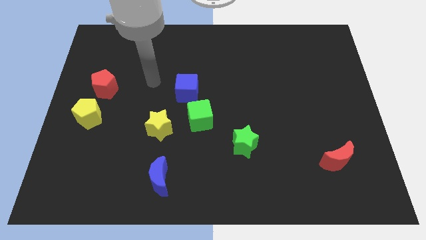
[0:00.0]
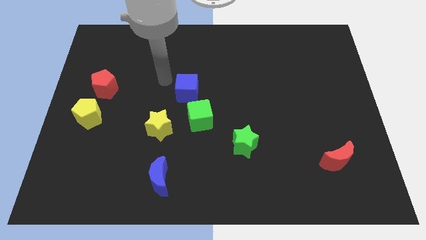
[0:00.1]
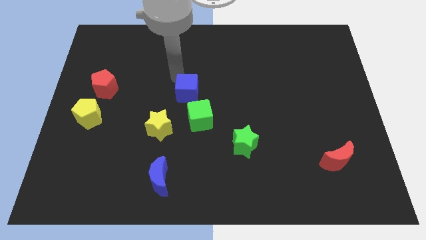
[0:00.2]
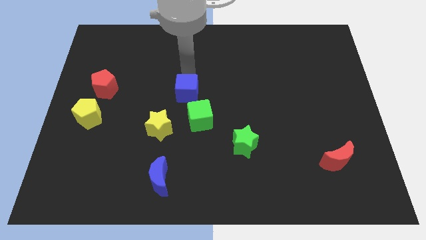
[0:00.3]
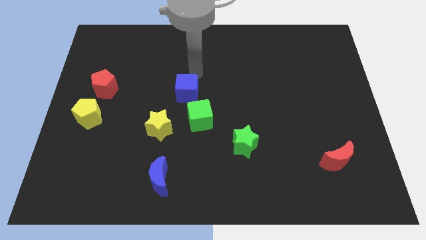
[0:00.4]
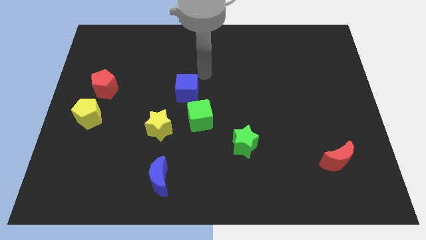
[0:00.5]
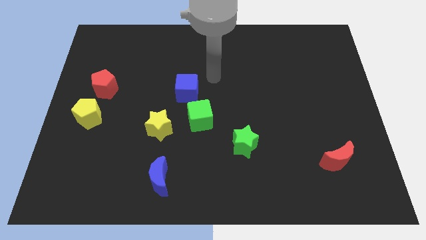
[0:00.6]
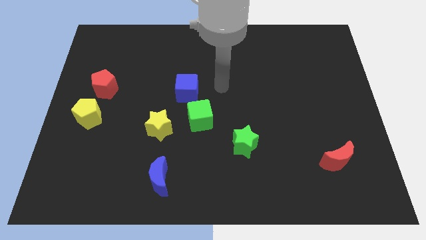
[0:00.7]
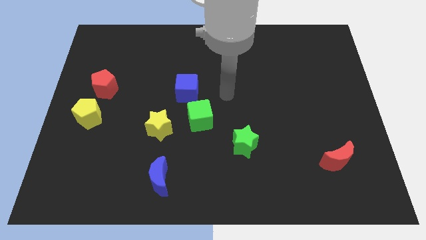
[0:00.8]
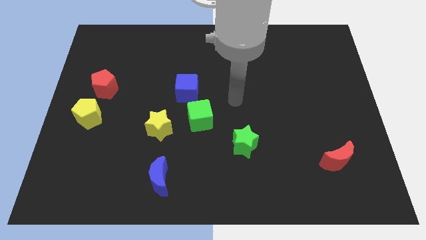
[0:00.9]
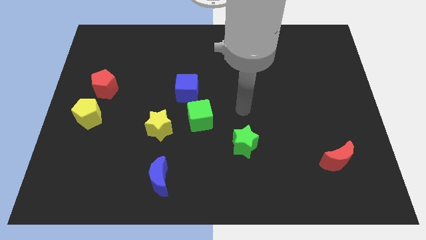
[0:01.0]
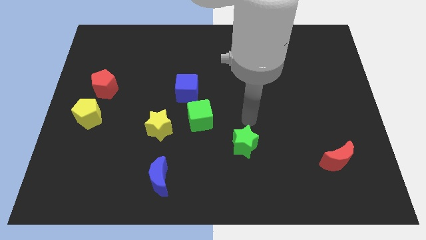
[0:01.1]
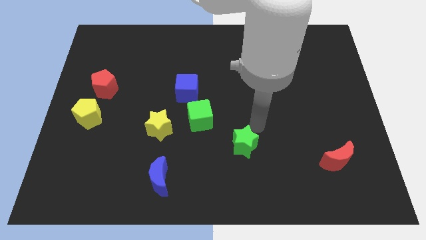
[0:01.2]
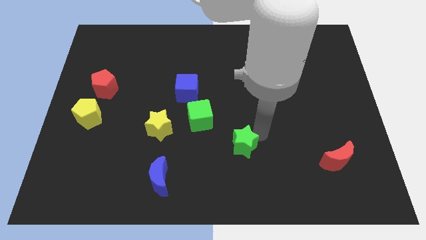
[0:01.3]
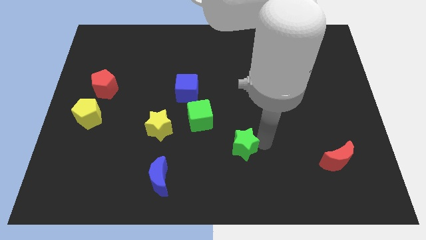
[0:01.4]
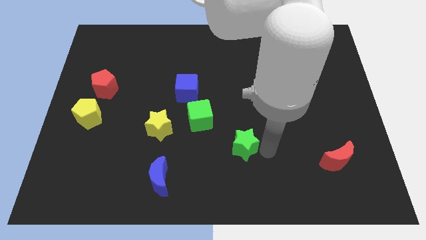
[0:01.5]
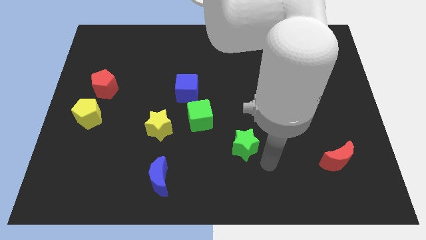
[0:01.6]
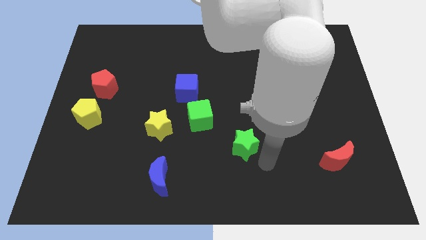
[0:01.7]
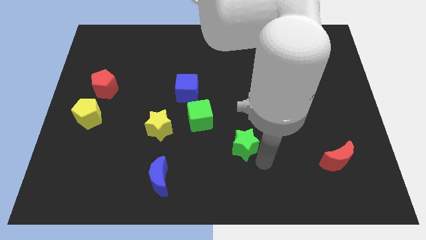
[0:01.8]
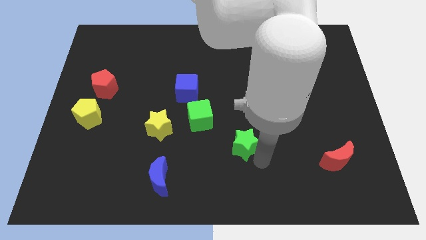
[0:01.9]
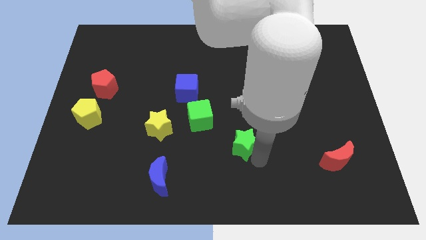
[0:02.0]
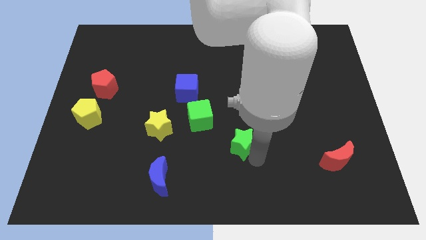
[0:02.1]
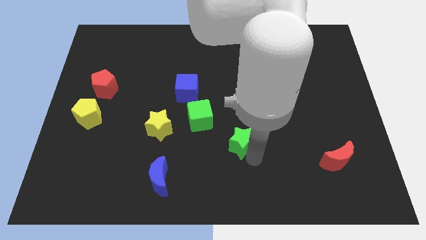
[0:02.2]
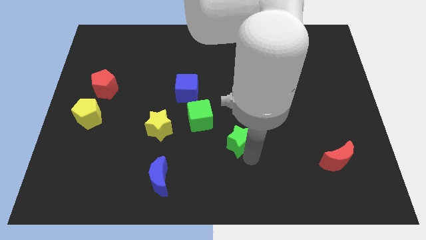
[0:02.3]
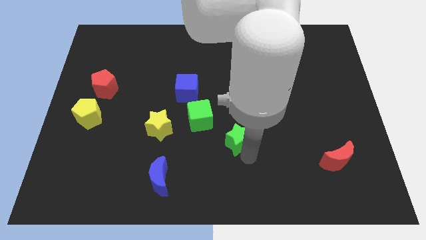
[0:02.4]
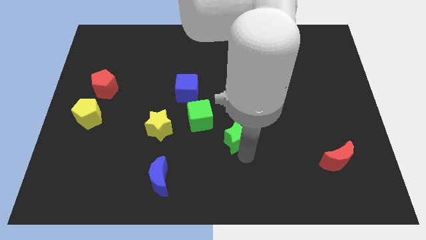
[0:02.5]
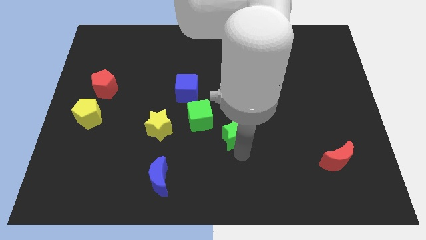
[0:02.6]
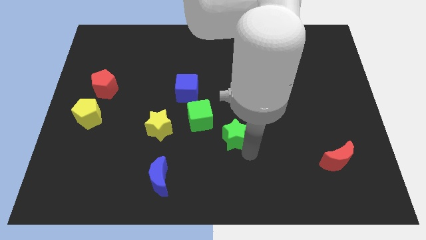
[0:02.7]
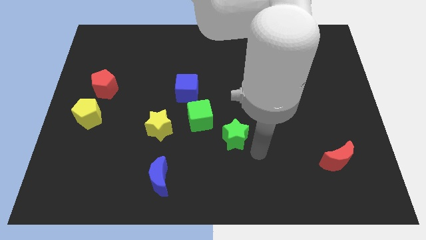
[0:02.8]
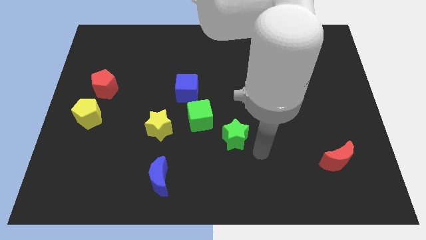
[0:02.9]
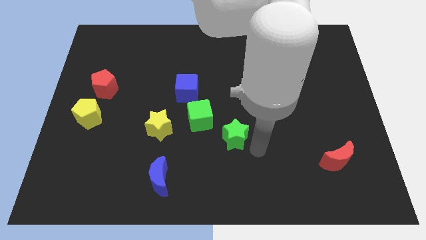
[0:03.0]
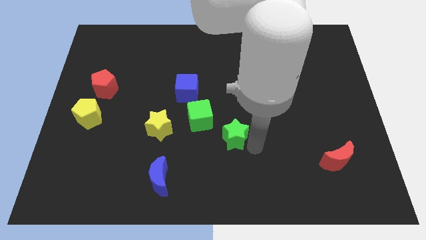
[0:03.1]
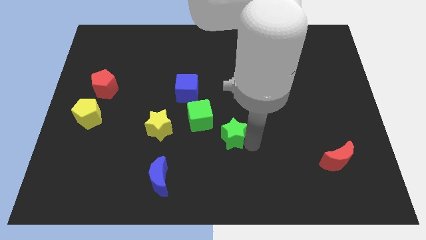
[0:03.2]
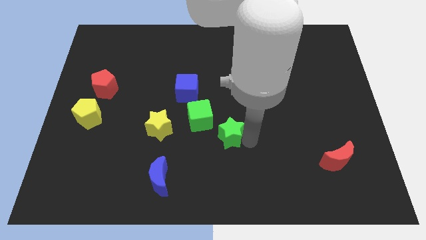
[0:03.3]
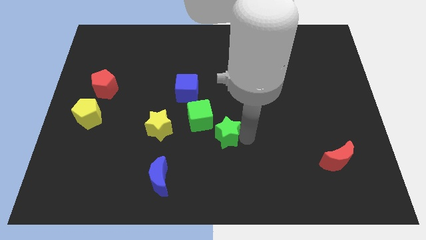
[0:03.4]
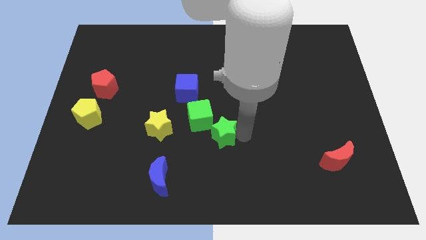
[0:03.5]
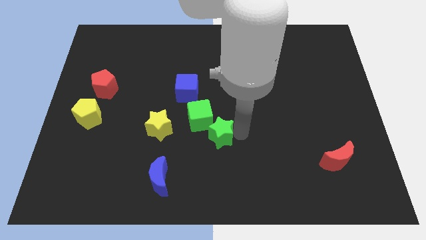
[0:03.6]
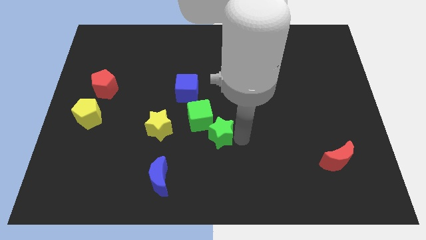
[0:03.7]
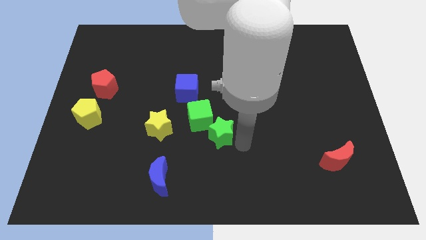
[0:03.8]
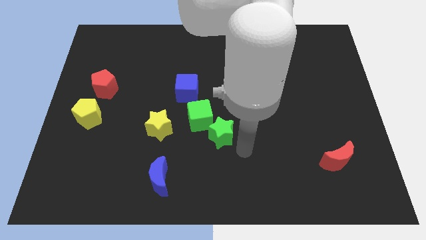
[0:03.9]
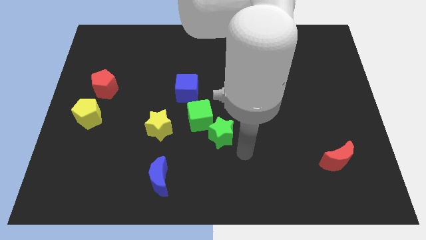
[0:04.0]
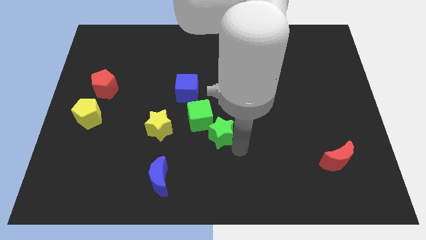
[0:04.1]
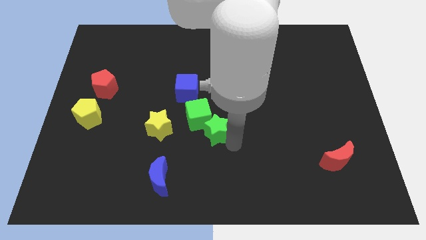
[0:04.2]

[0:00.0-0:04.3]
slide the green star towards the green cube

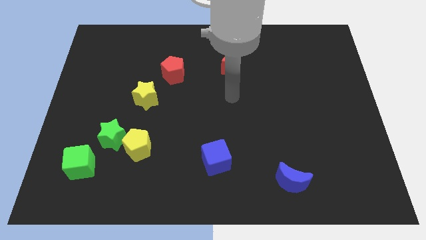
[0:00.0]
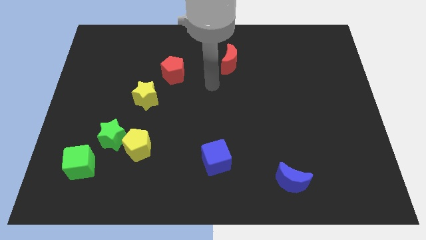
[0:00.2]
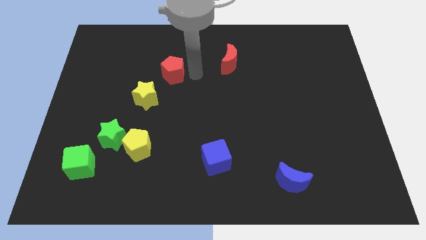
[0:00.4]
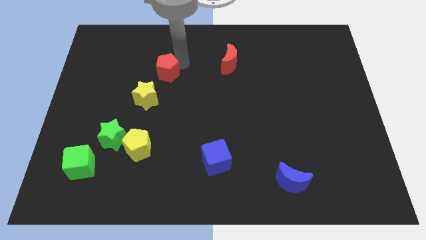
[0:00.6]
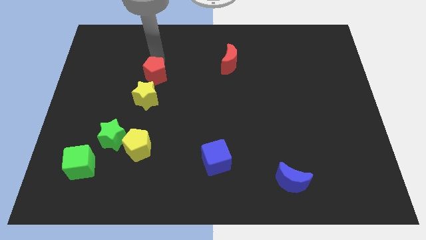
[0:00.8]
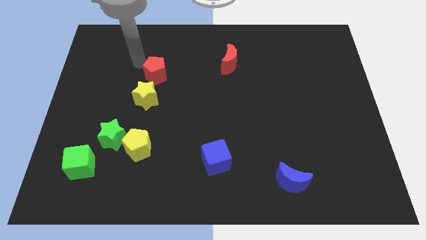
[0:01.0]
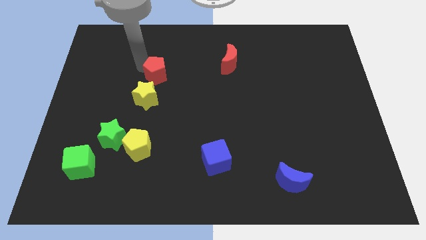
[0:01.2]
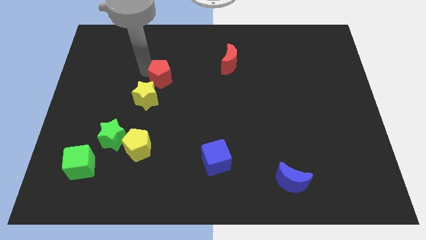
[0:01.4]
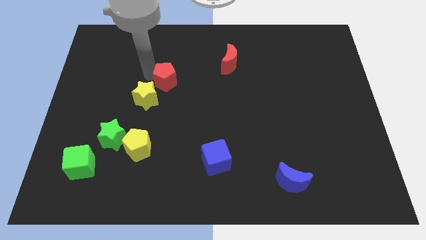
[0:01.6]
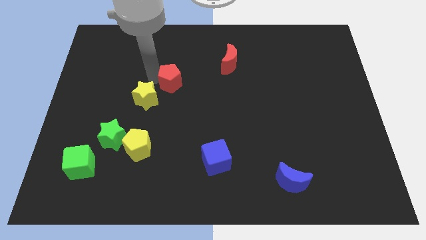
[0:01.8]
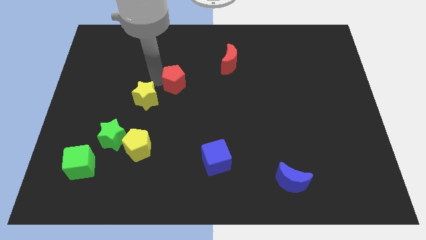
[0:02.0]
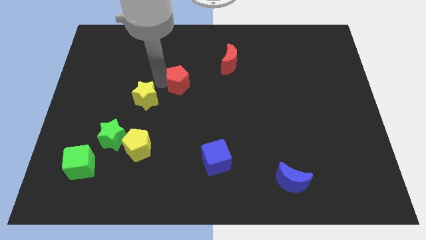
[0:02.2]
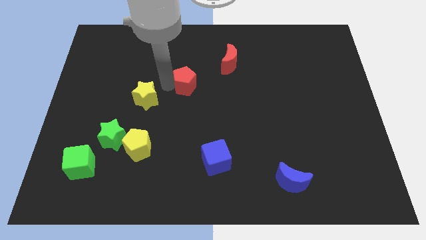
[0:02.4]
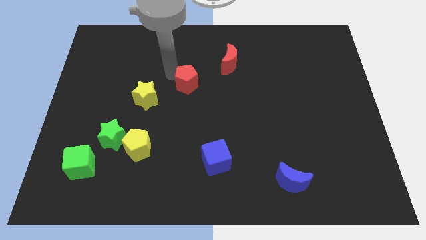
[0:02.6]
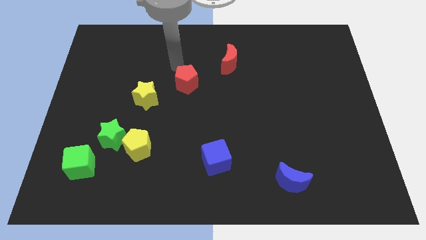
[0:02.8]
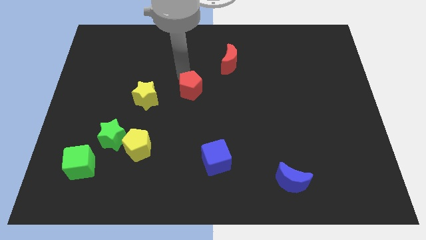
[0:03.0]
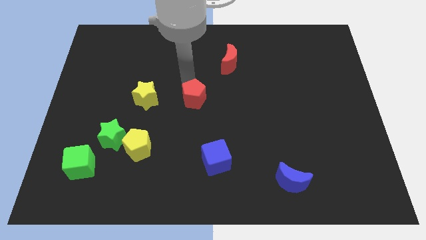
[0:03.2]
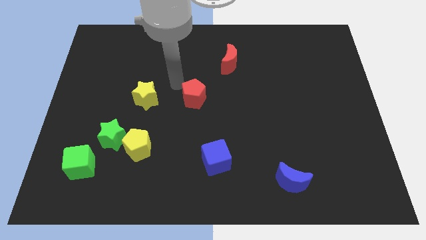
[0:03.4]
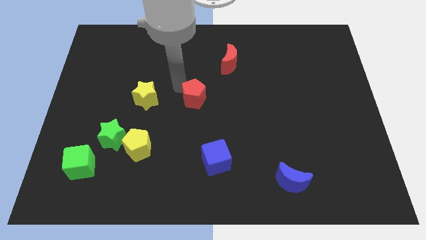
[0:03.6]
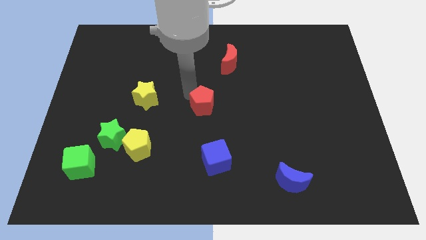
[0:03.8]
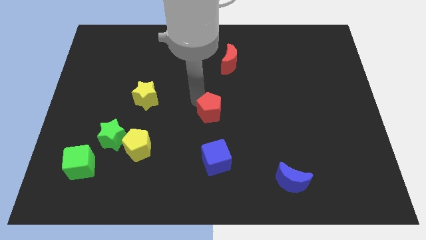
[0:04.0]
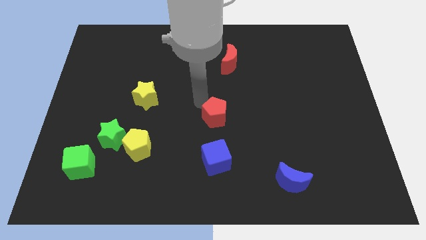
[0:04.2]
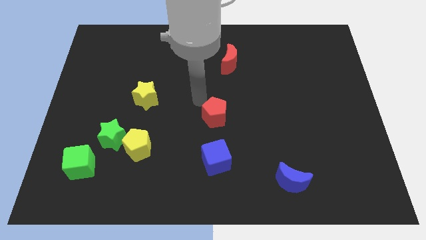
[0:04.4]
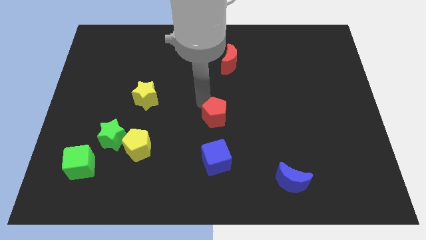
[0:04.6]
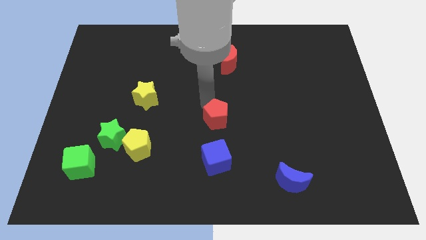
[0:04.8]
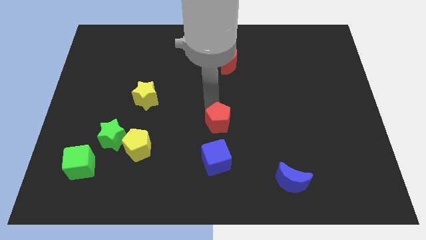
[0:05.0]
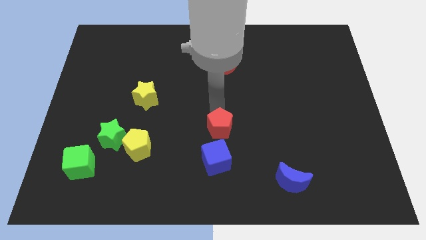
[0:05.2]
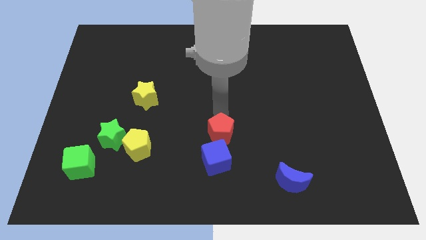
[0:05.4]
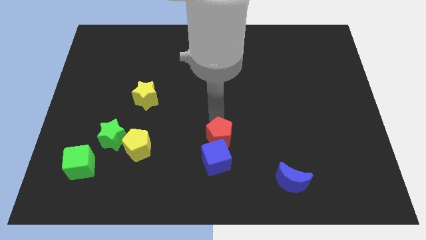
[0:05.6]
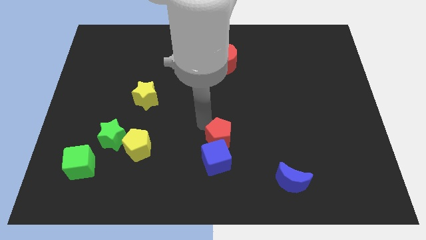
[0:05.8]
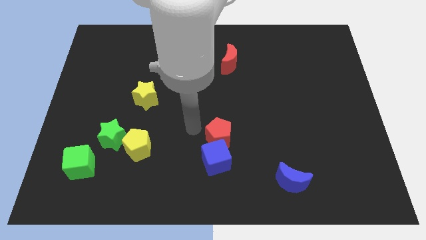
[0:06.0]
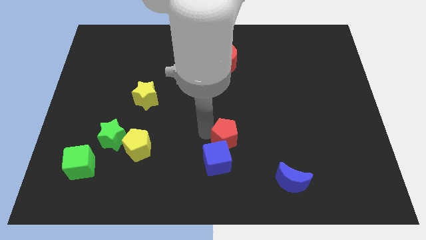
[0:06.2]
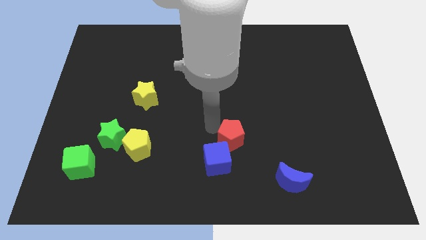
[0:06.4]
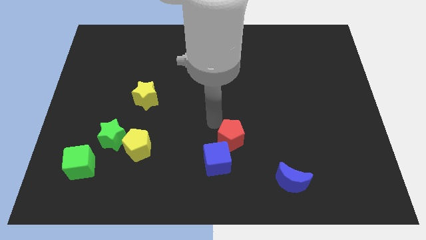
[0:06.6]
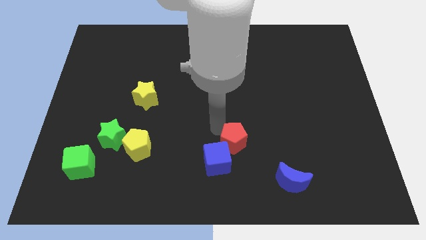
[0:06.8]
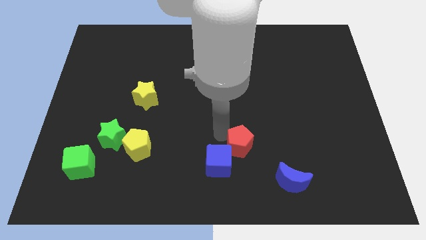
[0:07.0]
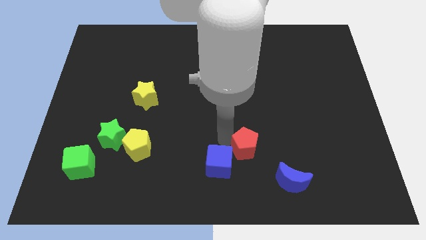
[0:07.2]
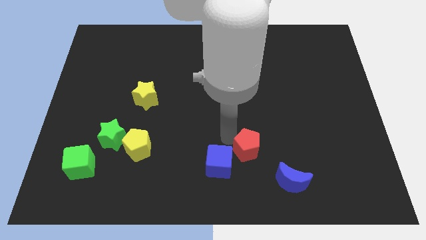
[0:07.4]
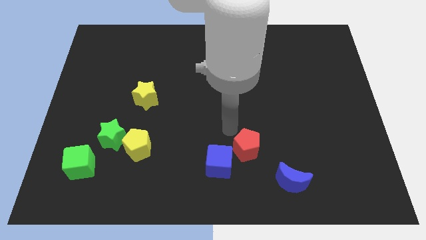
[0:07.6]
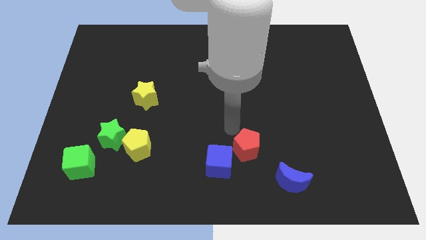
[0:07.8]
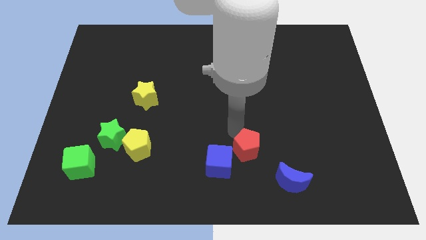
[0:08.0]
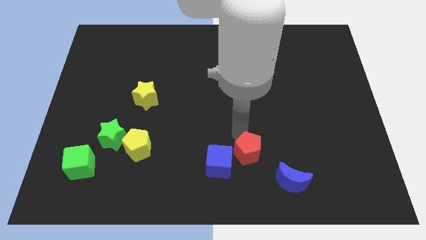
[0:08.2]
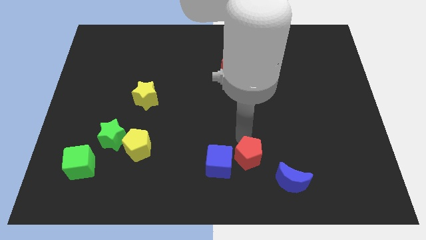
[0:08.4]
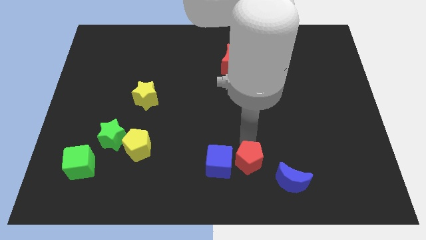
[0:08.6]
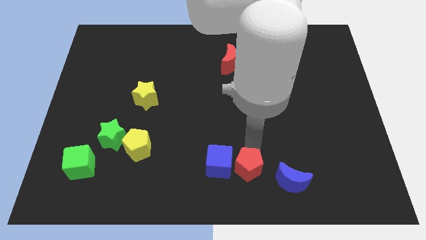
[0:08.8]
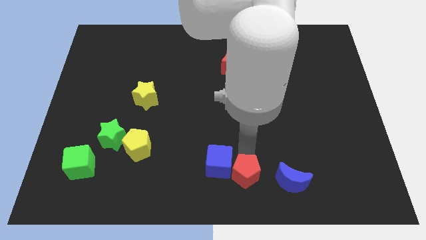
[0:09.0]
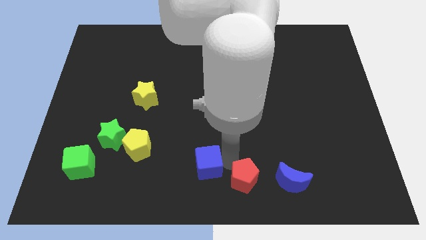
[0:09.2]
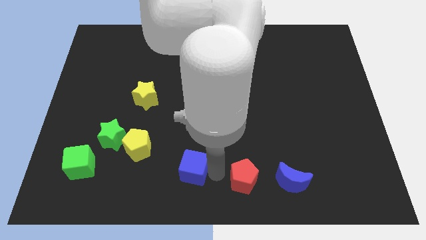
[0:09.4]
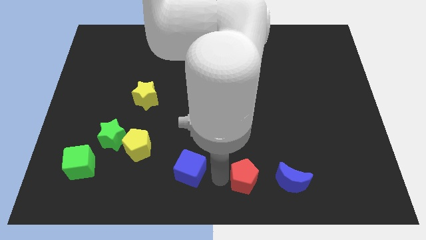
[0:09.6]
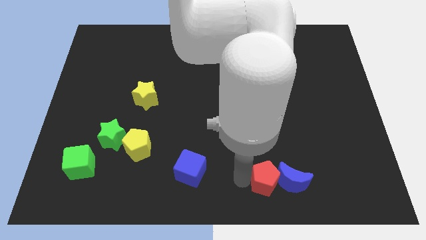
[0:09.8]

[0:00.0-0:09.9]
move the red pentagon towards the blue moon
